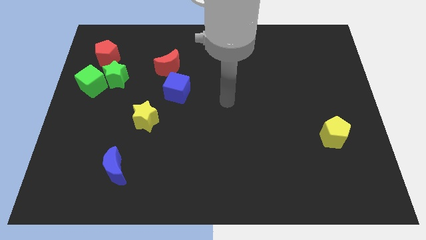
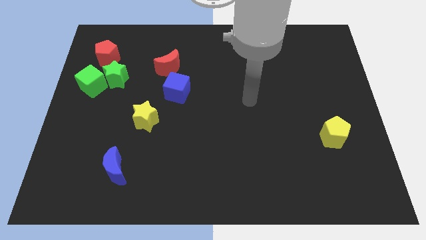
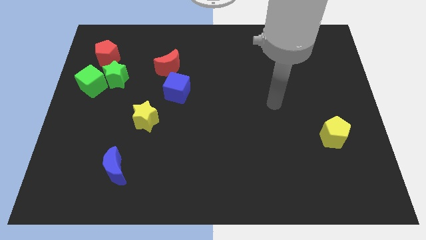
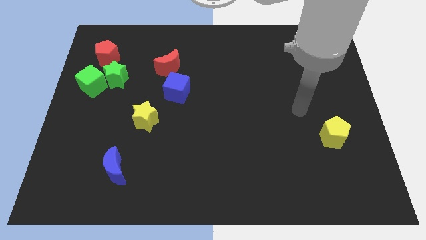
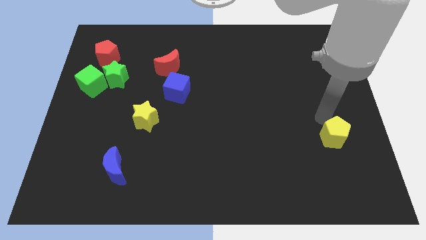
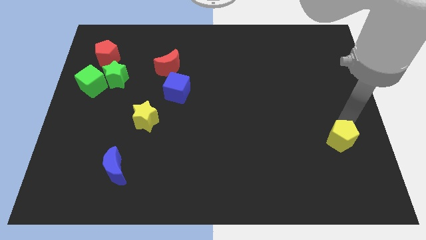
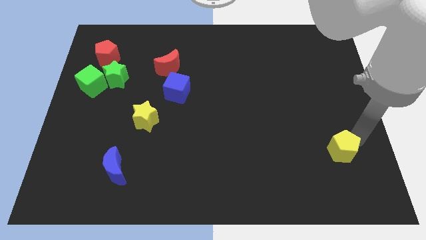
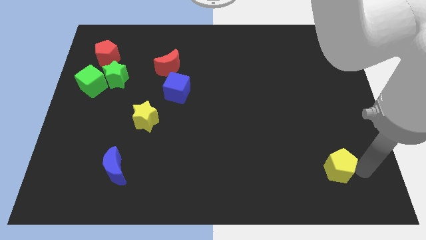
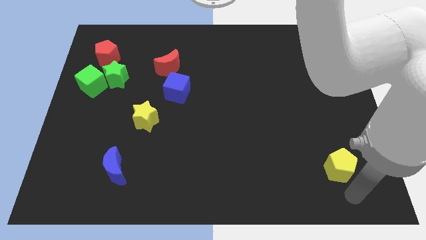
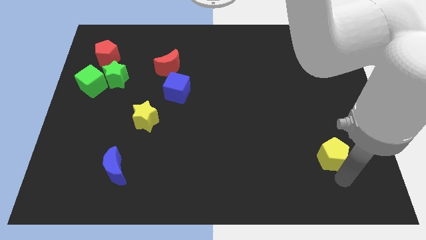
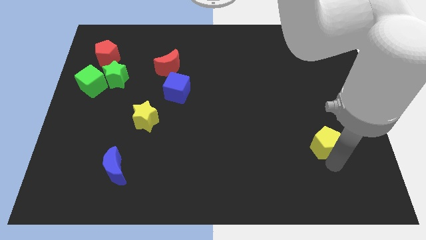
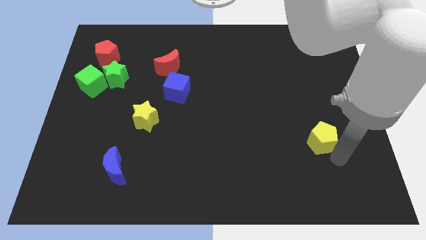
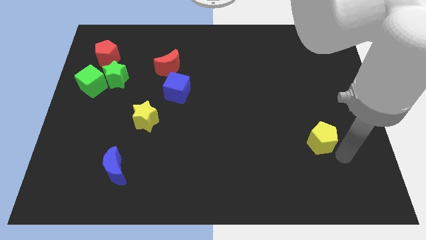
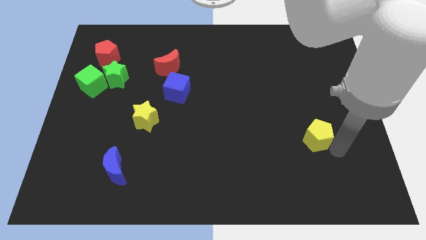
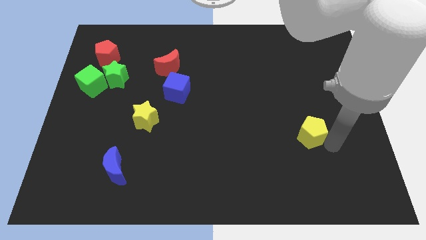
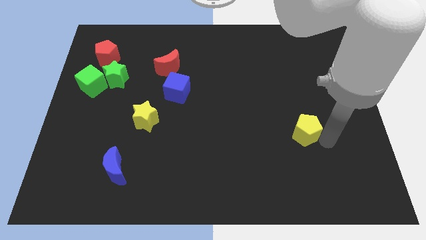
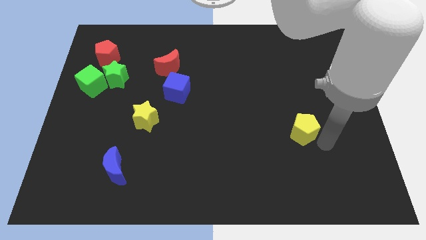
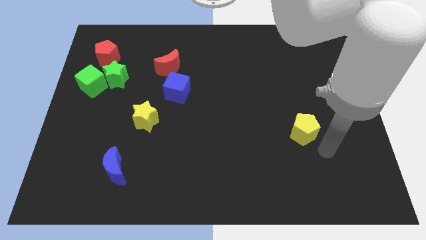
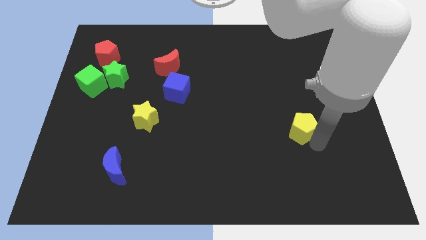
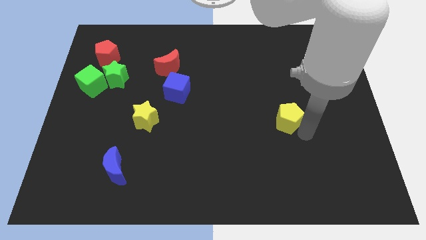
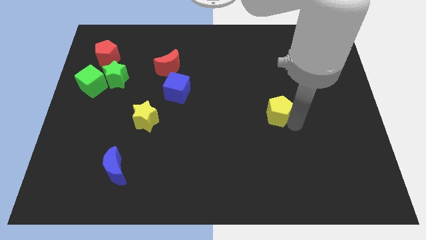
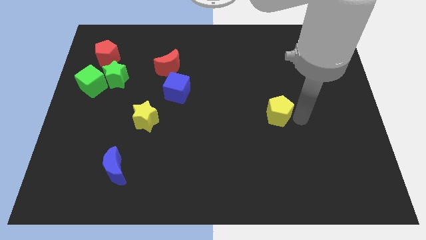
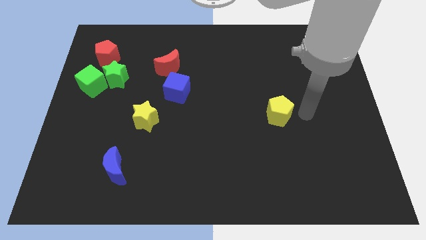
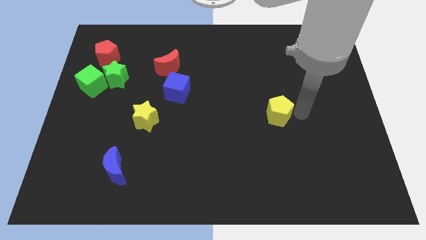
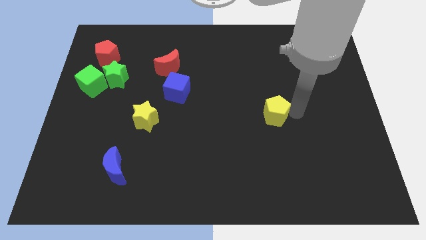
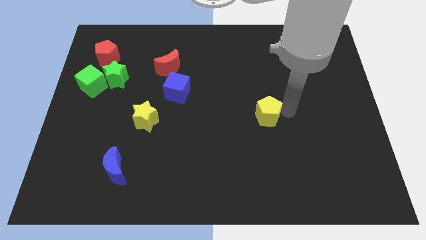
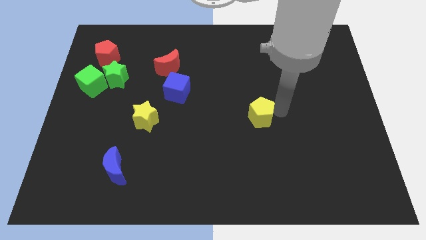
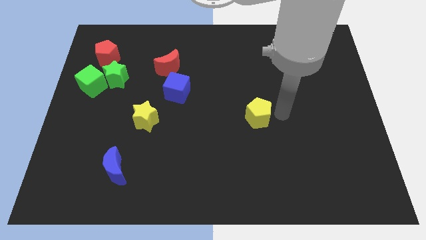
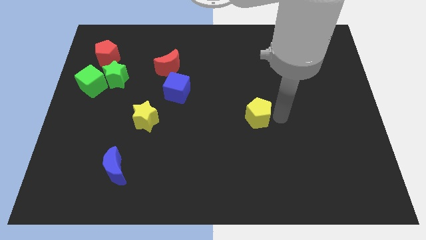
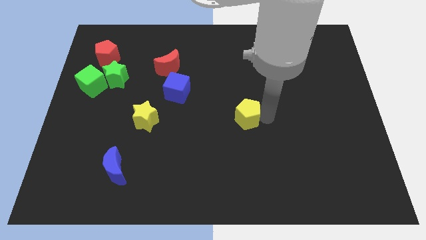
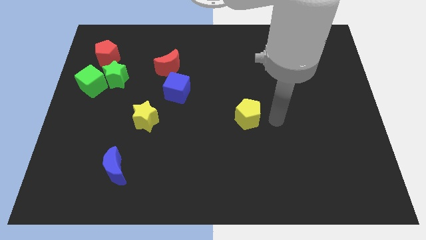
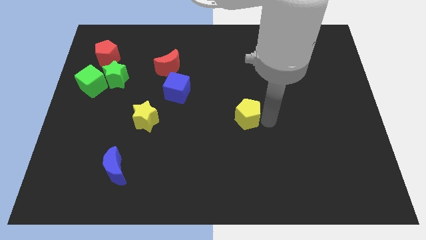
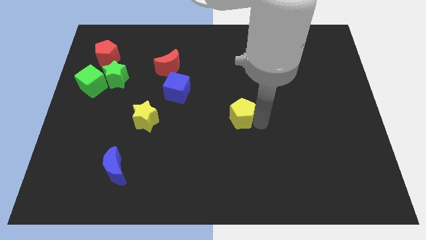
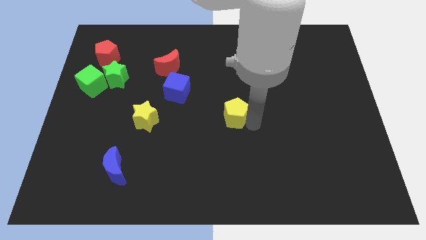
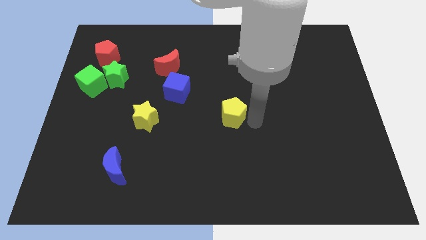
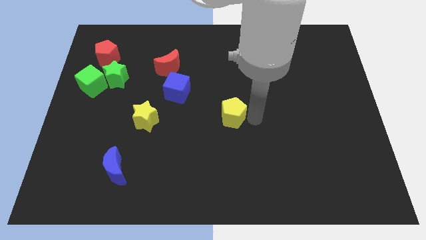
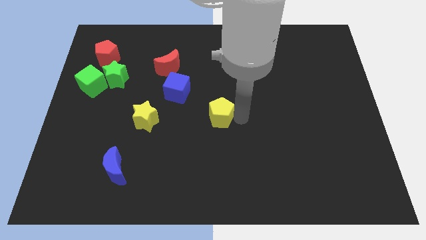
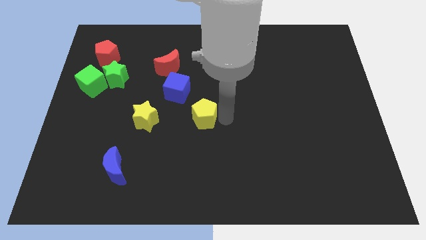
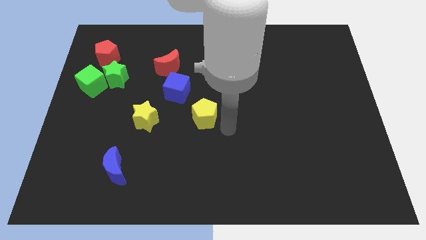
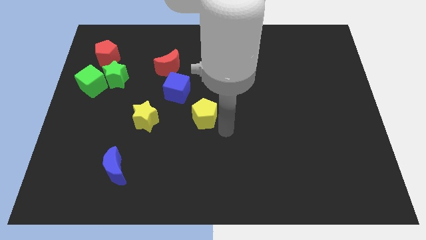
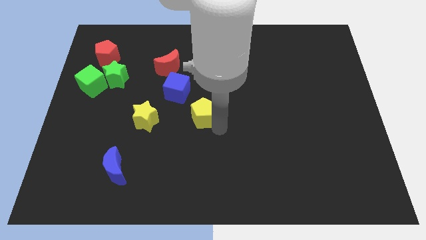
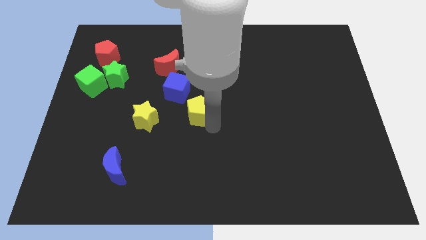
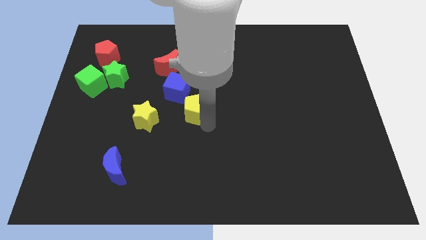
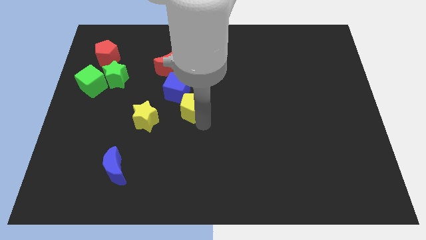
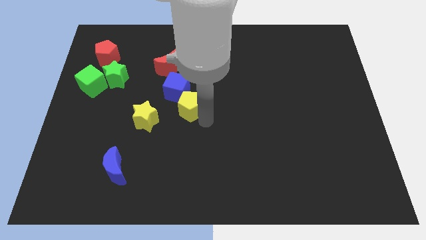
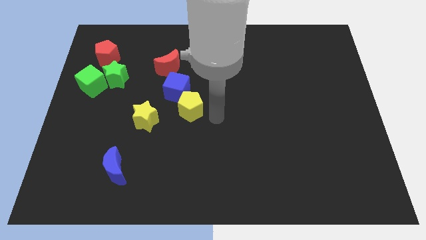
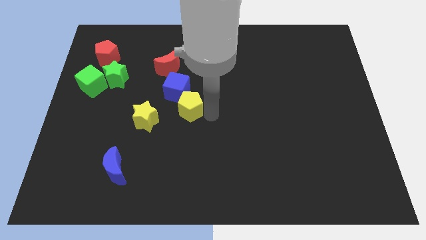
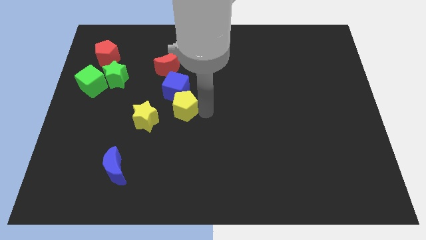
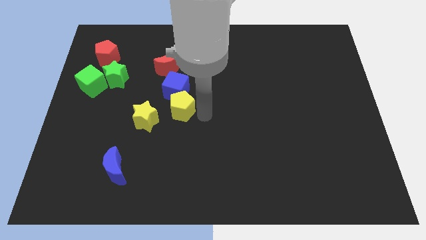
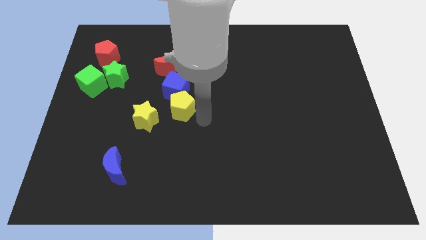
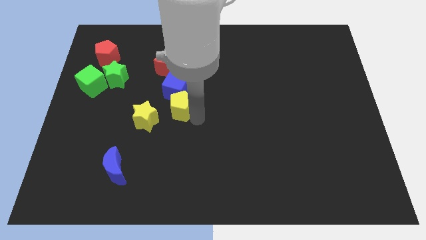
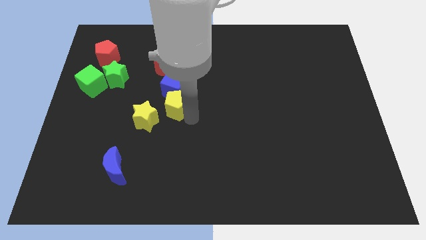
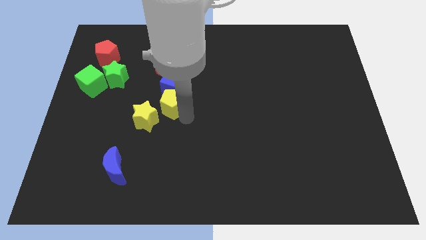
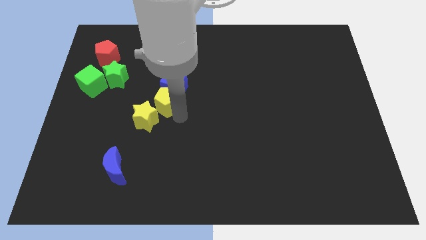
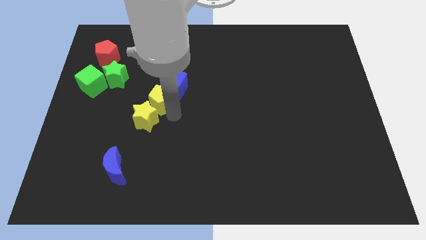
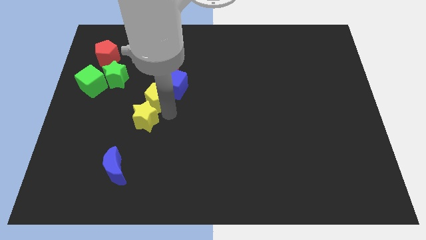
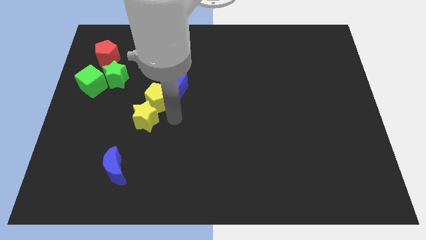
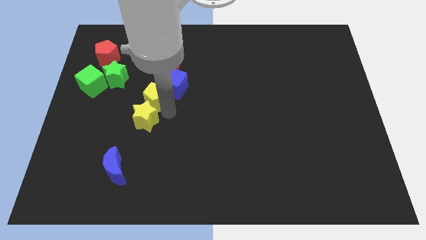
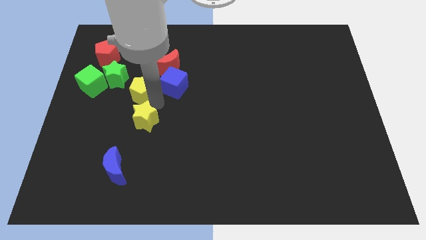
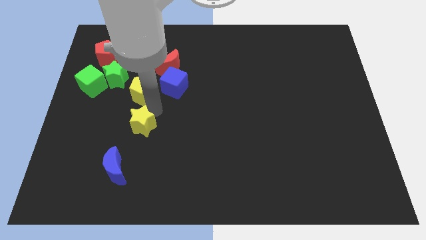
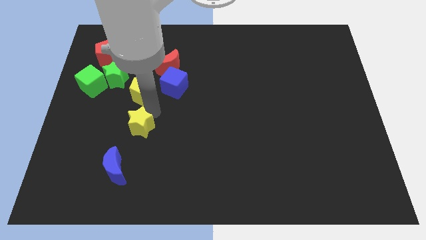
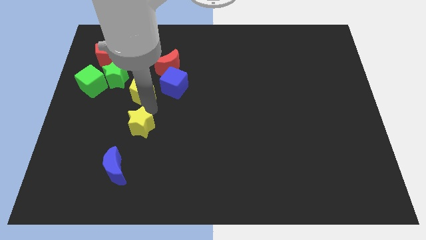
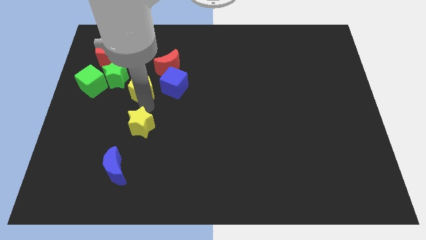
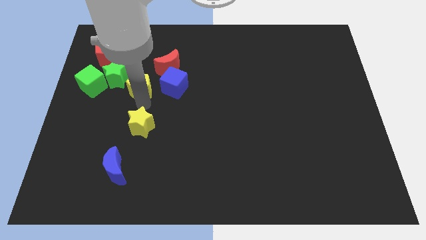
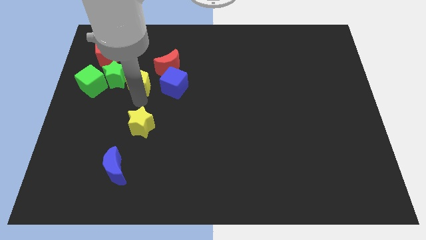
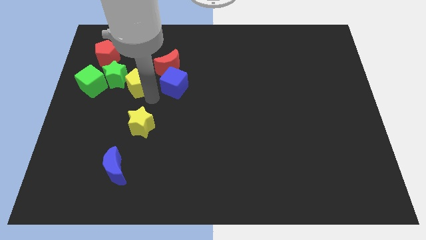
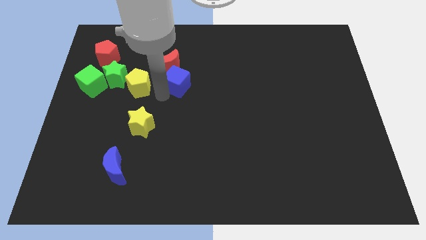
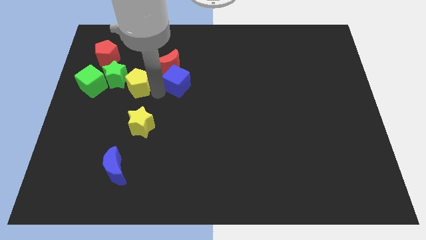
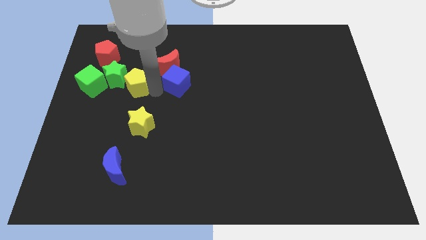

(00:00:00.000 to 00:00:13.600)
push the yellow pentagon close to the green star

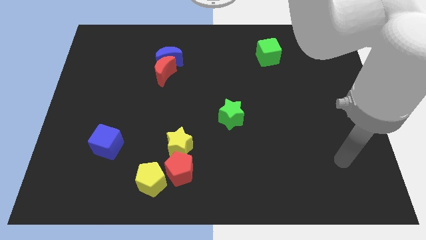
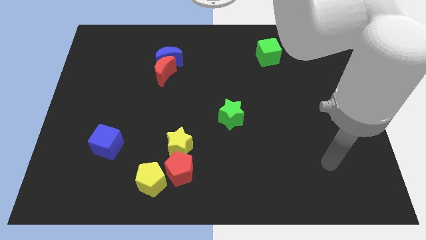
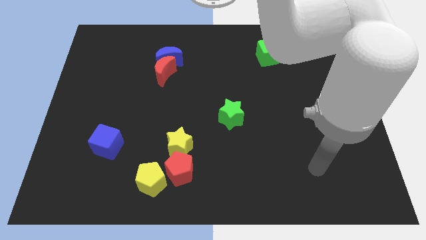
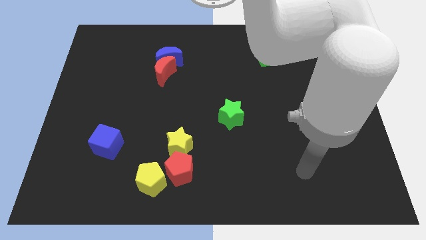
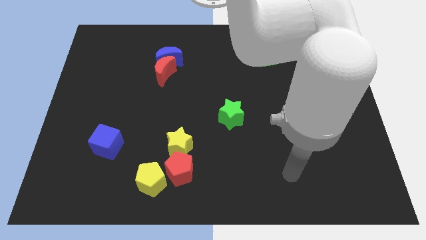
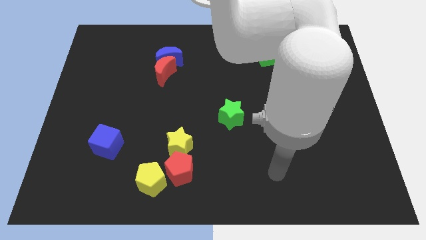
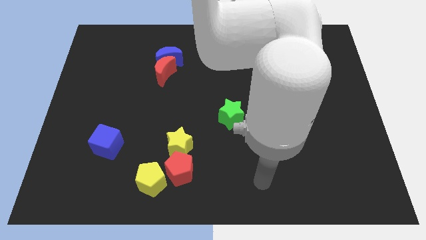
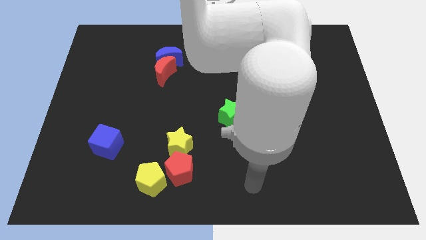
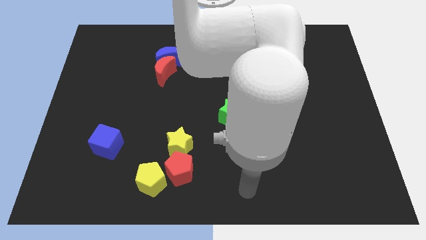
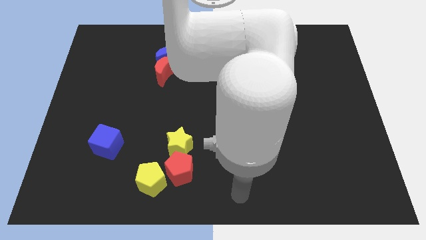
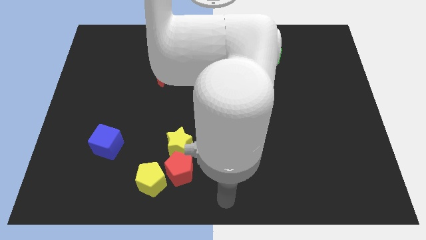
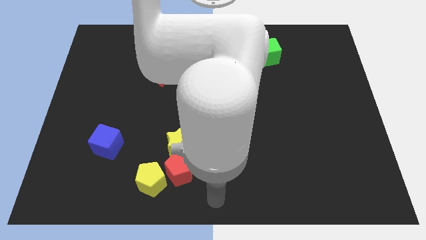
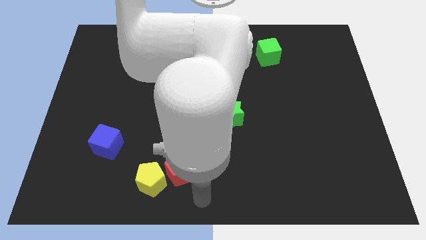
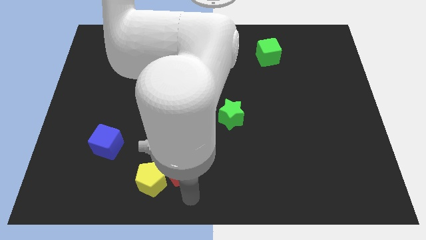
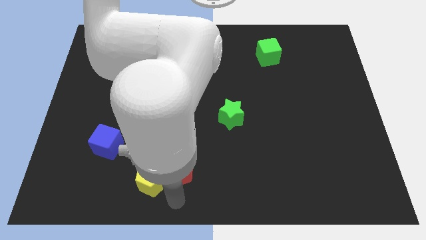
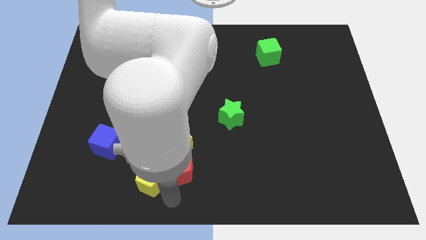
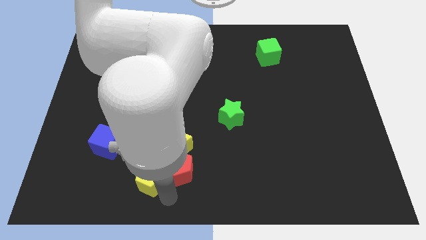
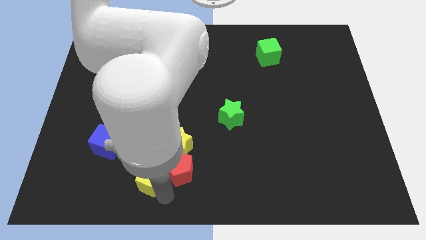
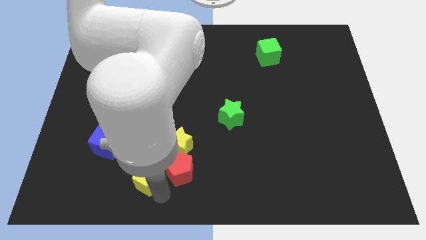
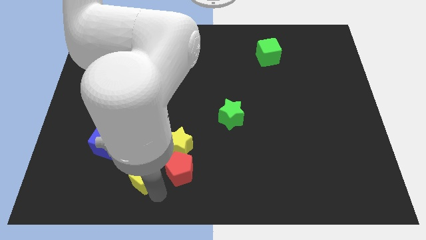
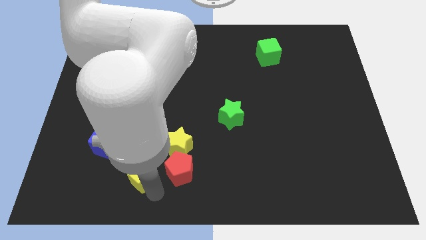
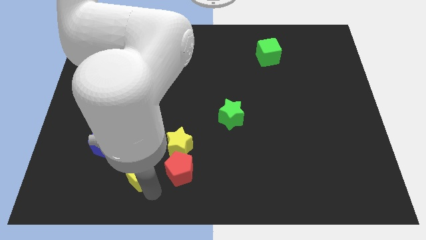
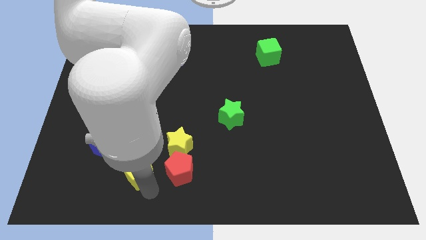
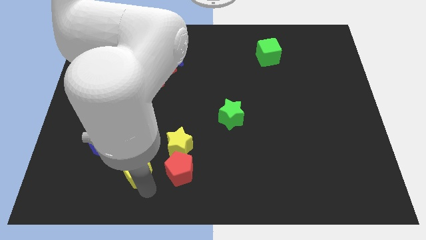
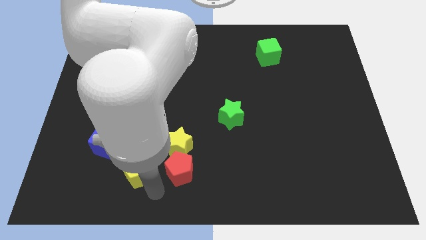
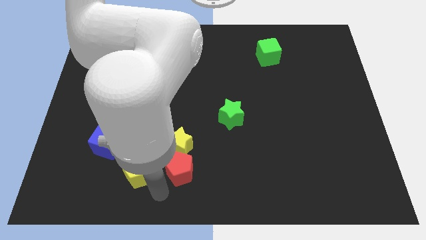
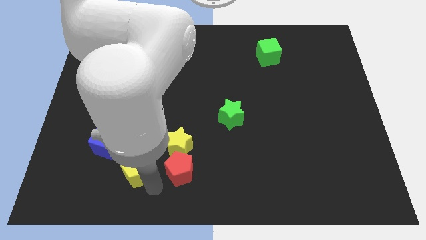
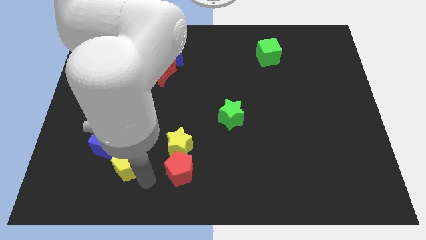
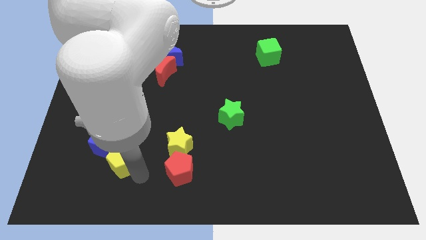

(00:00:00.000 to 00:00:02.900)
push the yellow pentagon close to the blue cube
